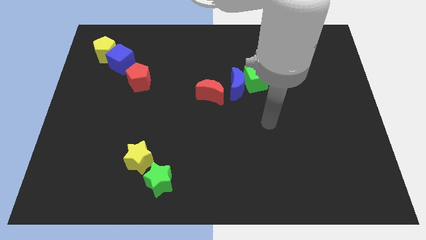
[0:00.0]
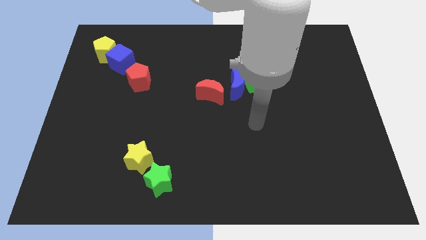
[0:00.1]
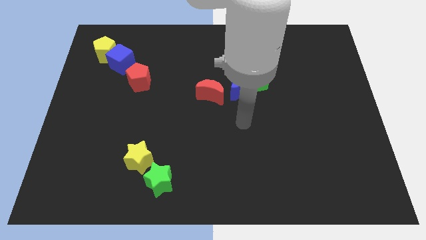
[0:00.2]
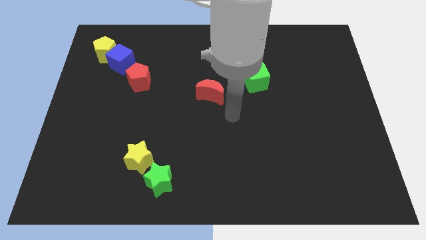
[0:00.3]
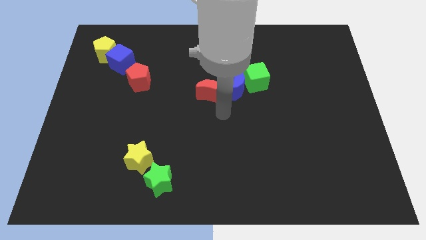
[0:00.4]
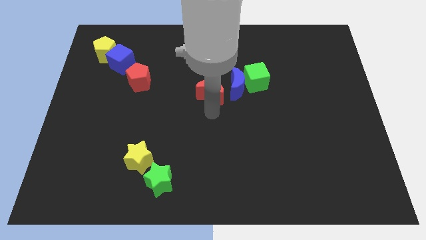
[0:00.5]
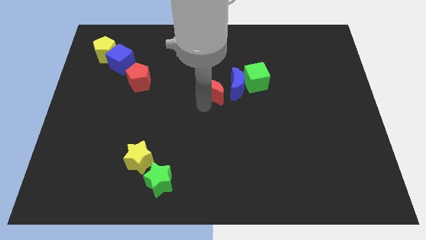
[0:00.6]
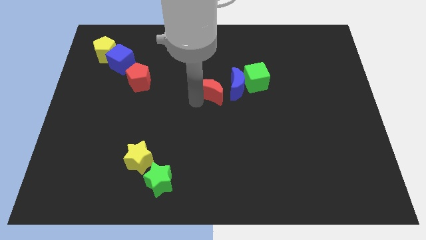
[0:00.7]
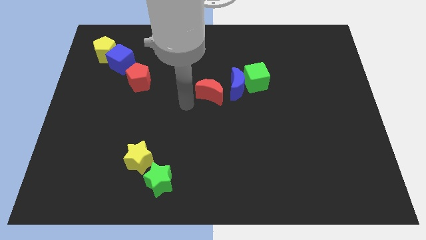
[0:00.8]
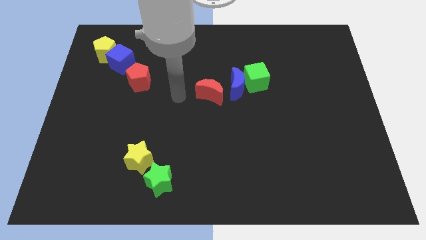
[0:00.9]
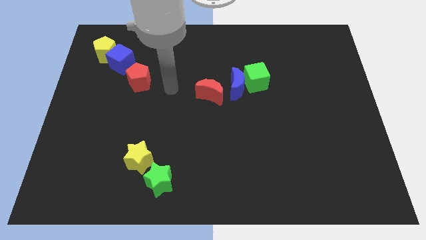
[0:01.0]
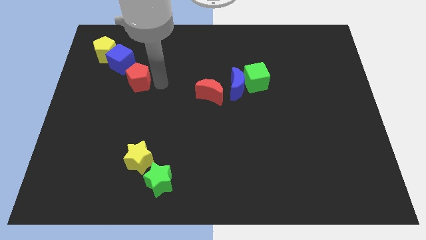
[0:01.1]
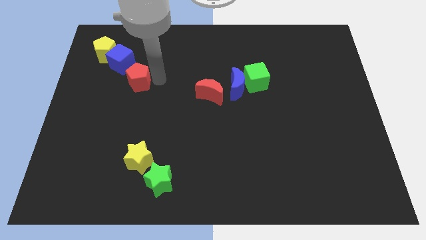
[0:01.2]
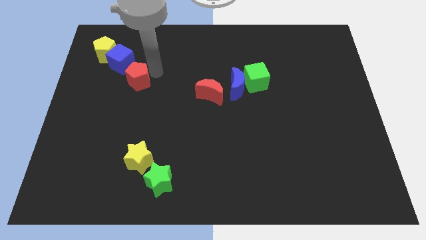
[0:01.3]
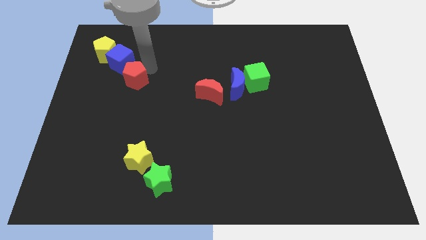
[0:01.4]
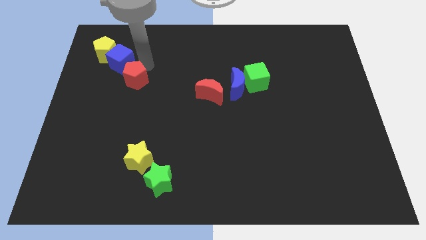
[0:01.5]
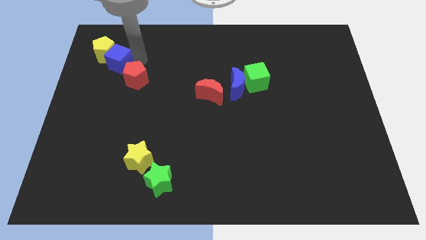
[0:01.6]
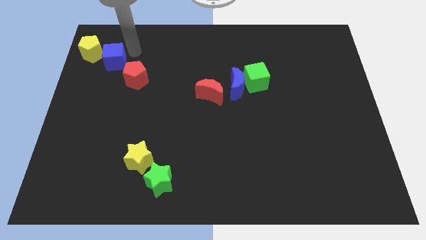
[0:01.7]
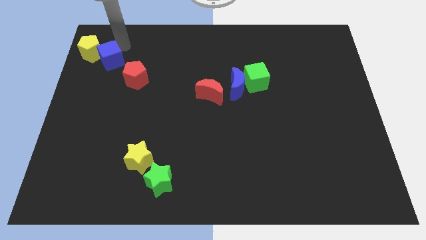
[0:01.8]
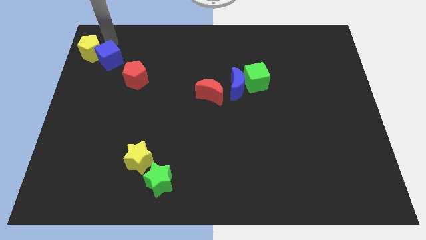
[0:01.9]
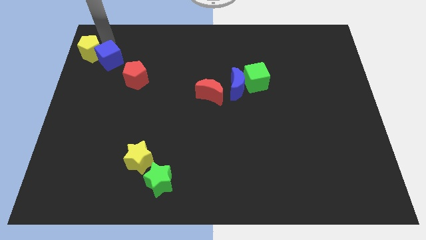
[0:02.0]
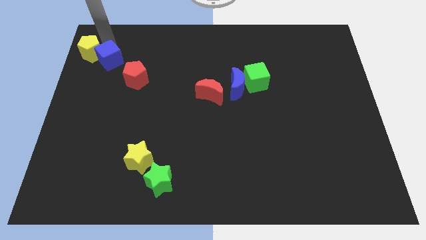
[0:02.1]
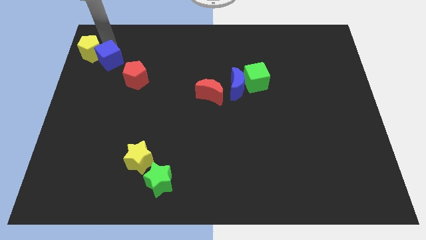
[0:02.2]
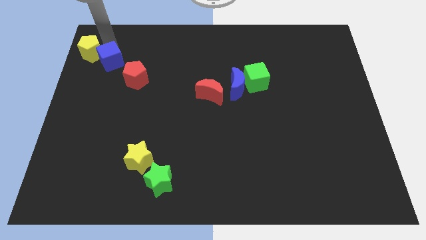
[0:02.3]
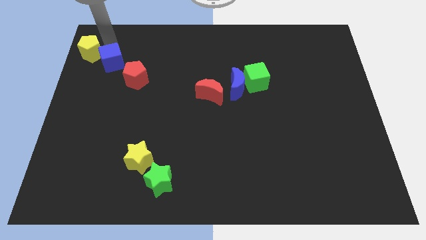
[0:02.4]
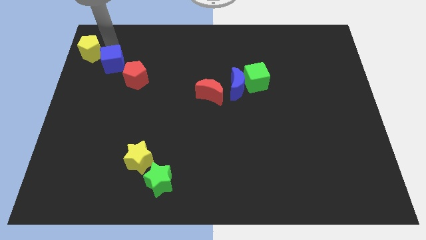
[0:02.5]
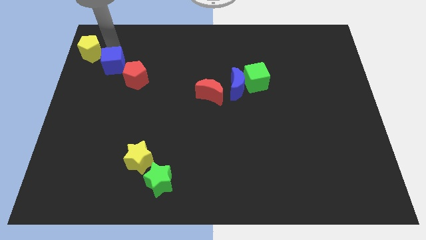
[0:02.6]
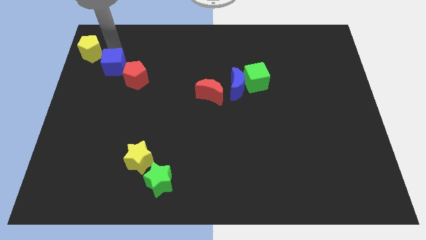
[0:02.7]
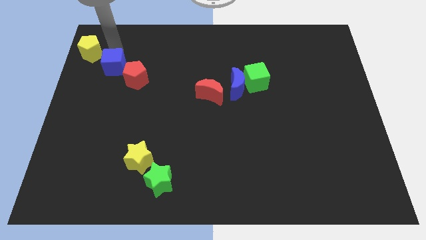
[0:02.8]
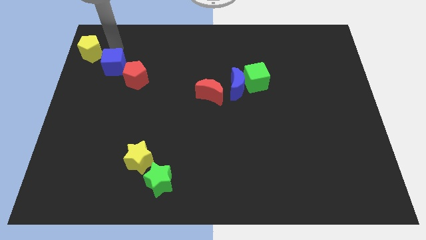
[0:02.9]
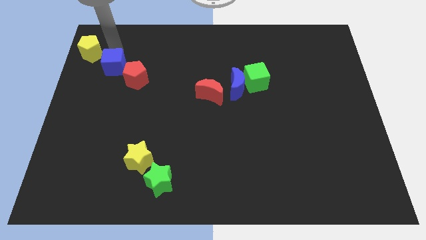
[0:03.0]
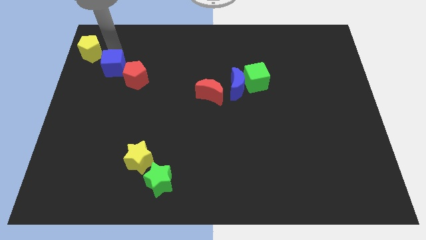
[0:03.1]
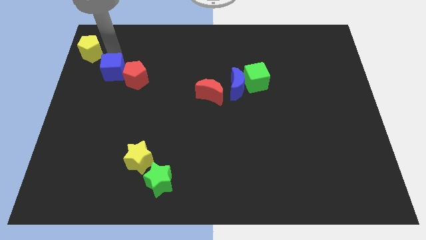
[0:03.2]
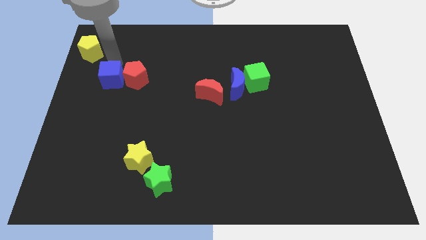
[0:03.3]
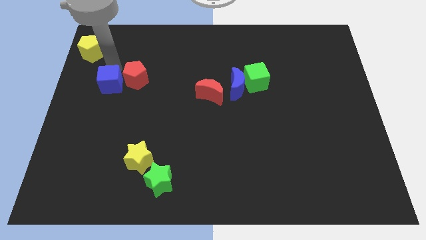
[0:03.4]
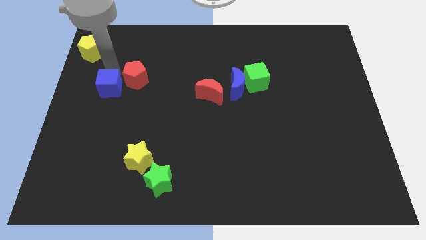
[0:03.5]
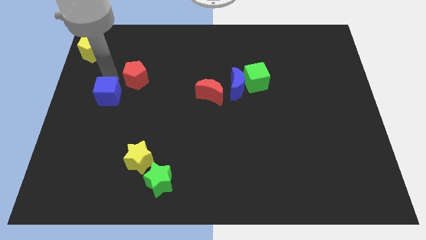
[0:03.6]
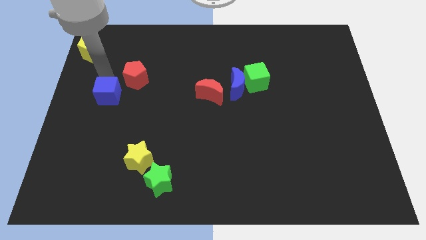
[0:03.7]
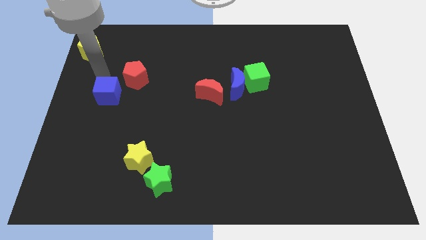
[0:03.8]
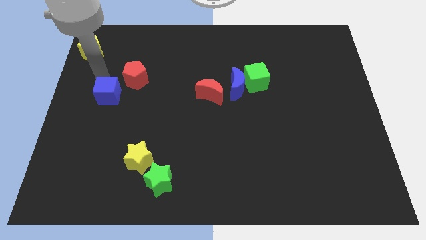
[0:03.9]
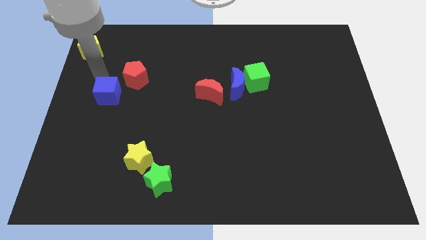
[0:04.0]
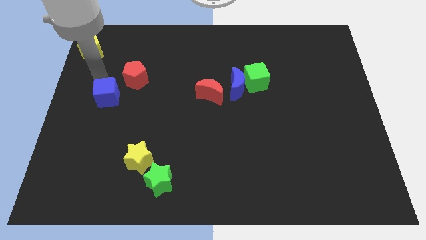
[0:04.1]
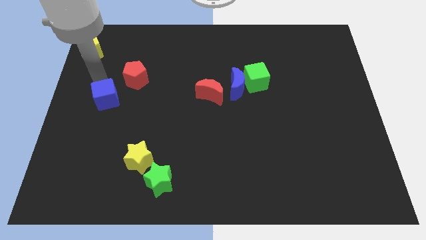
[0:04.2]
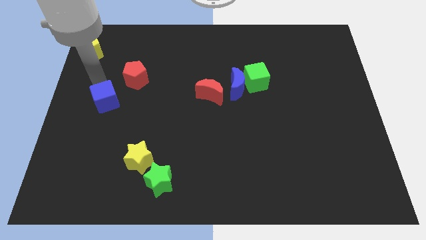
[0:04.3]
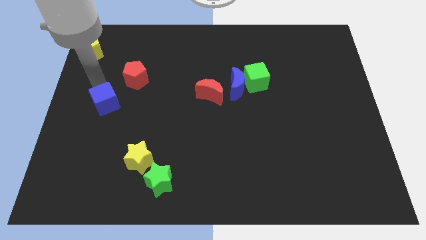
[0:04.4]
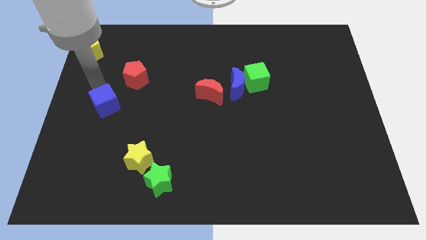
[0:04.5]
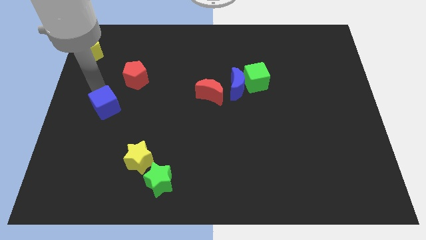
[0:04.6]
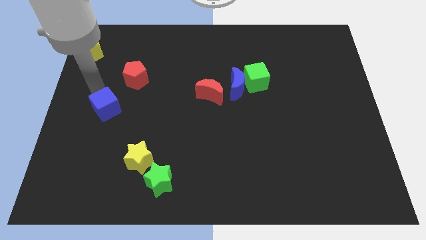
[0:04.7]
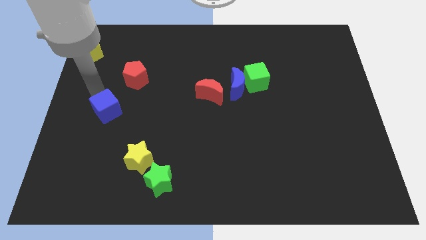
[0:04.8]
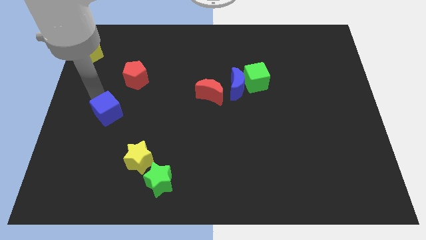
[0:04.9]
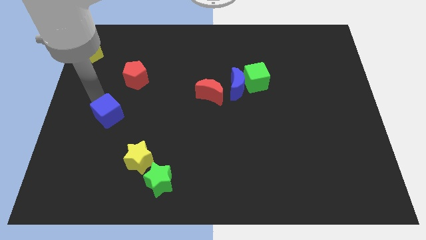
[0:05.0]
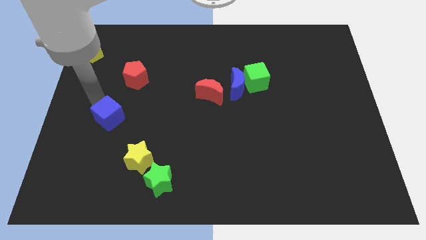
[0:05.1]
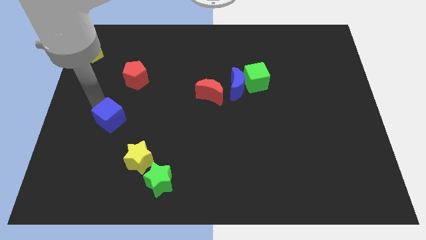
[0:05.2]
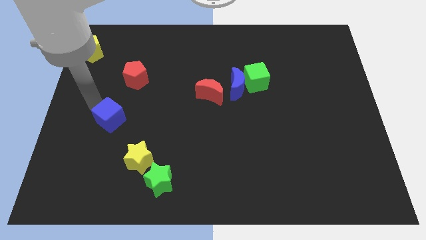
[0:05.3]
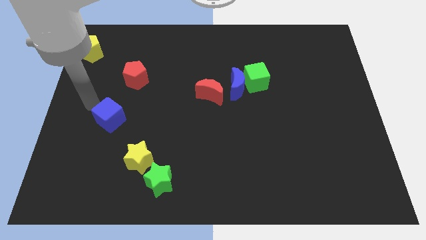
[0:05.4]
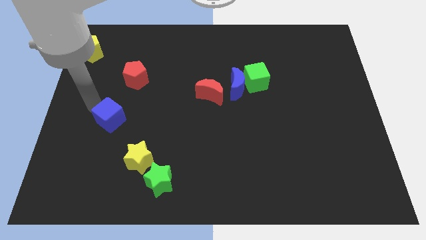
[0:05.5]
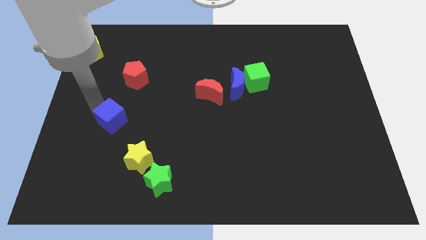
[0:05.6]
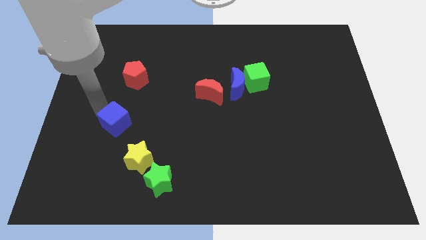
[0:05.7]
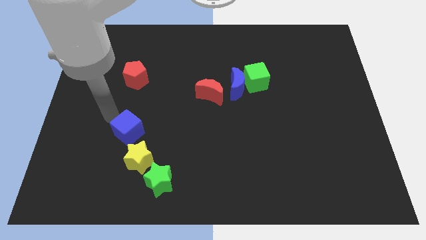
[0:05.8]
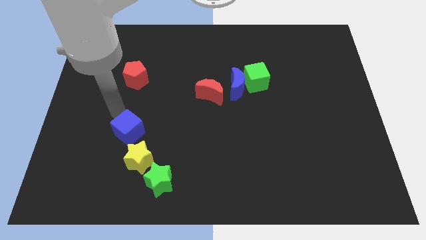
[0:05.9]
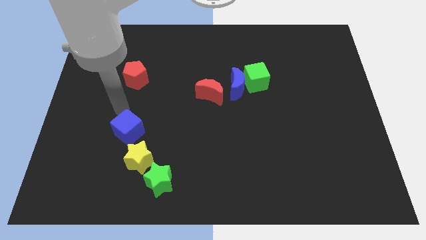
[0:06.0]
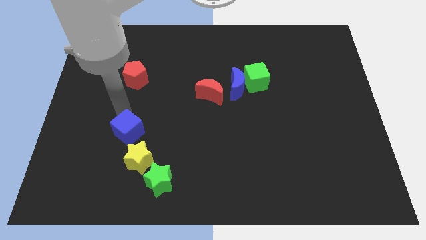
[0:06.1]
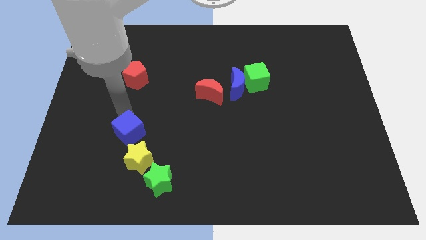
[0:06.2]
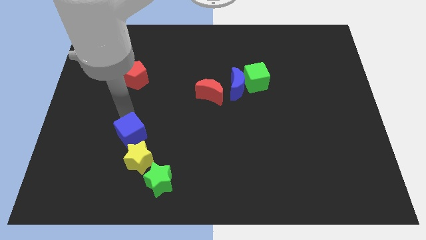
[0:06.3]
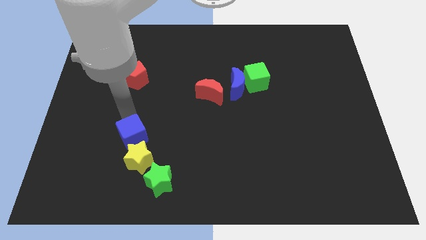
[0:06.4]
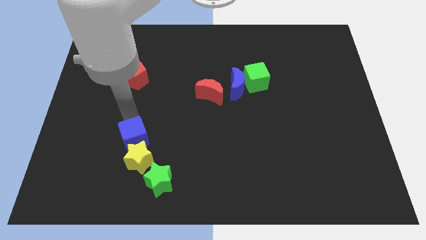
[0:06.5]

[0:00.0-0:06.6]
put the blue cube to the yellow star

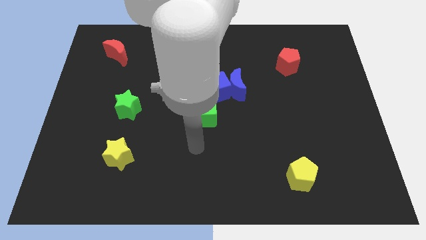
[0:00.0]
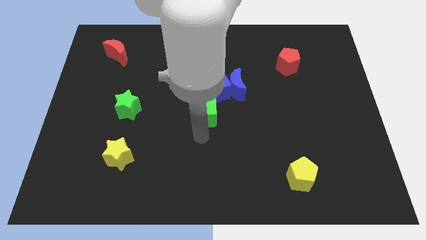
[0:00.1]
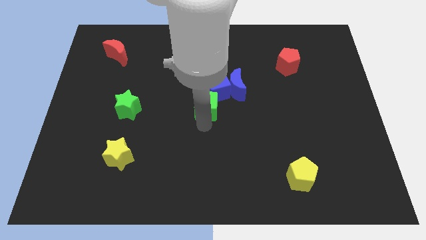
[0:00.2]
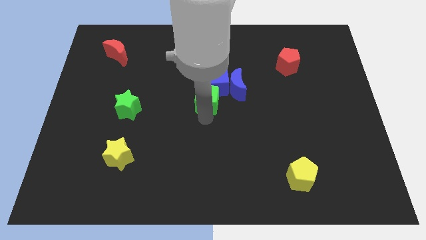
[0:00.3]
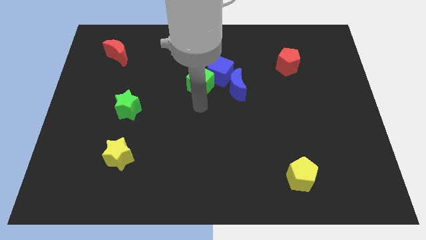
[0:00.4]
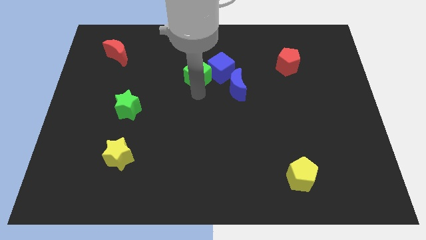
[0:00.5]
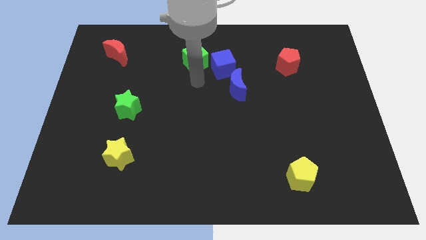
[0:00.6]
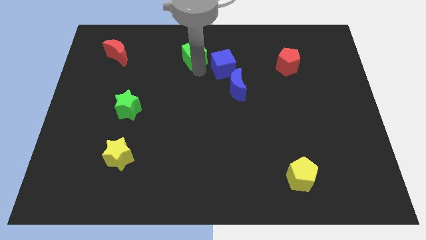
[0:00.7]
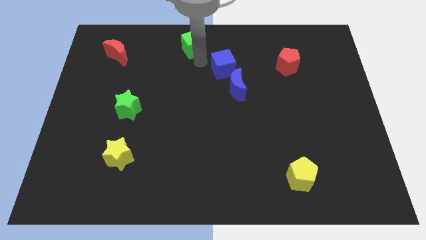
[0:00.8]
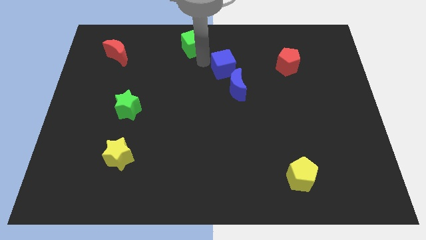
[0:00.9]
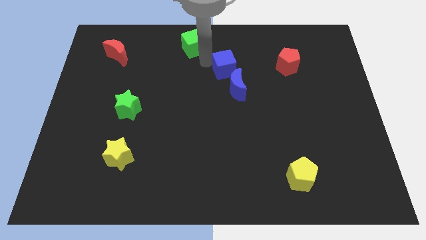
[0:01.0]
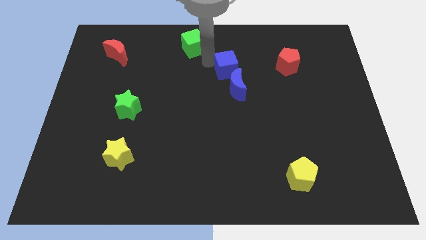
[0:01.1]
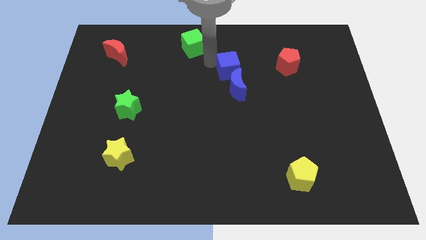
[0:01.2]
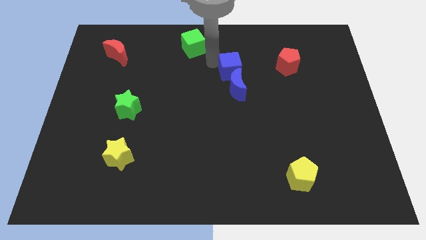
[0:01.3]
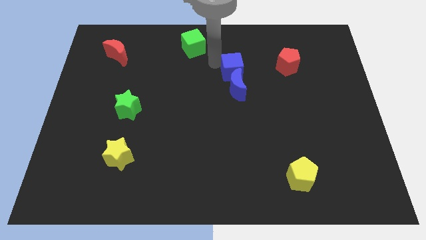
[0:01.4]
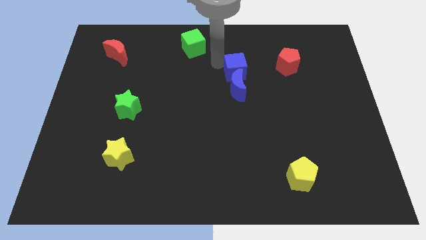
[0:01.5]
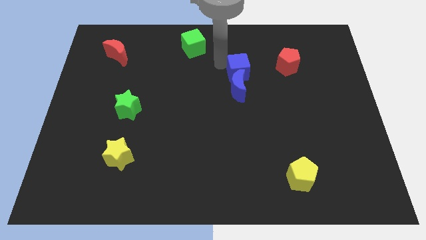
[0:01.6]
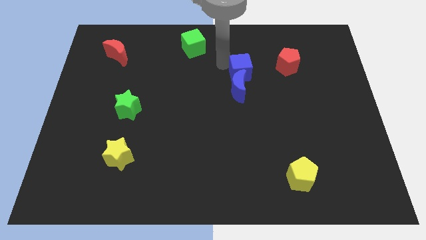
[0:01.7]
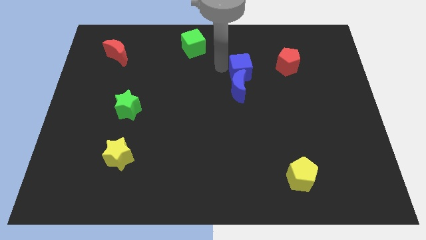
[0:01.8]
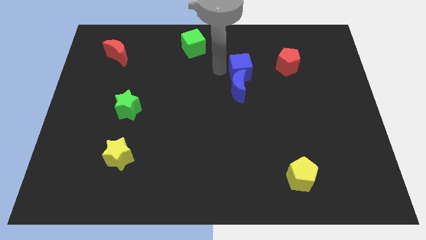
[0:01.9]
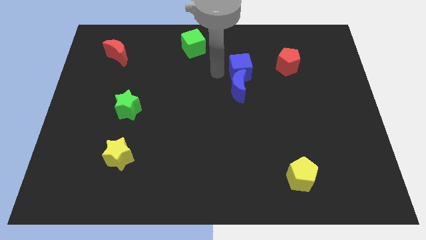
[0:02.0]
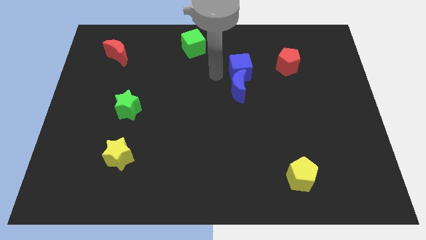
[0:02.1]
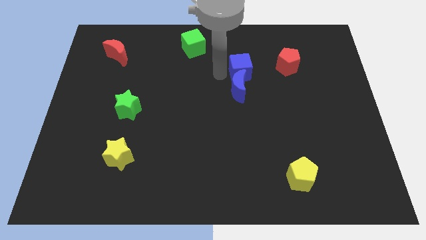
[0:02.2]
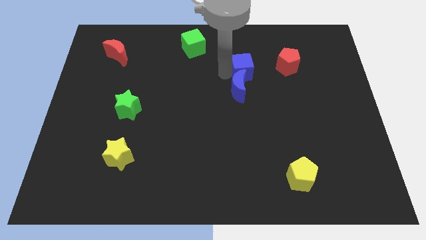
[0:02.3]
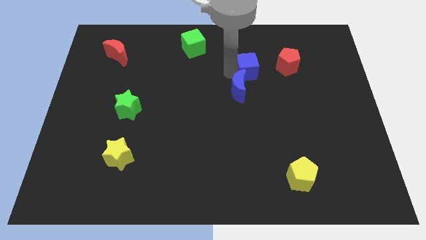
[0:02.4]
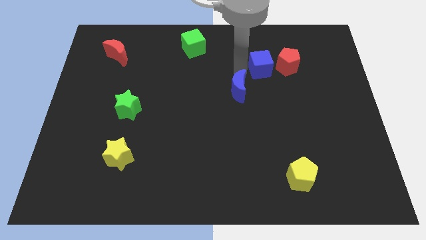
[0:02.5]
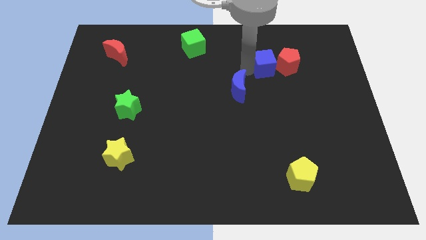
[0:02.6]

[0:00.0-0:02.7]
slide the blue cube close to the red pentagon
